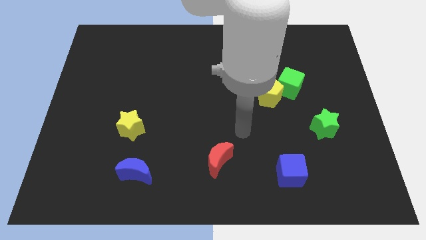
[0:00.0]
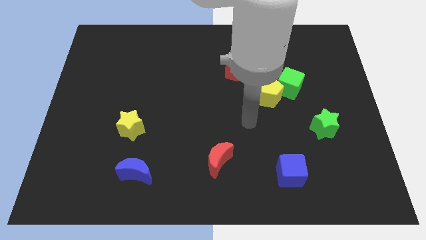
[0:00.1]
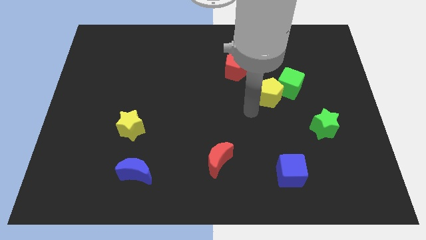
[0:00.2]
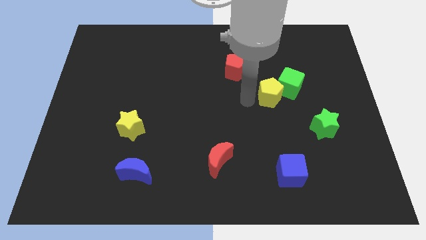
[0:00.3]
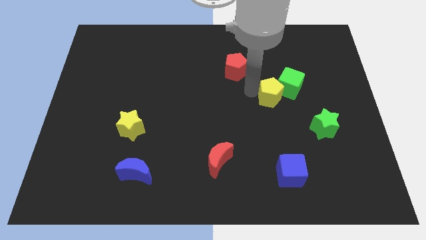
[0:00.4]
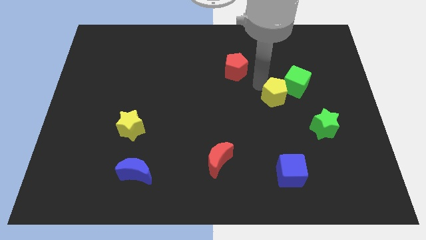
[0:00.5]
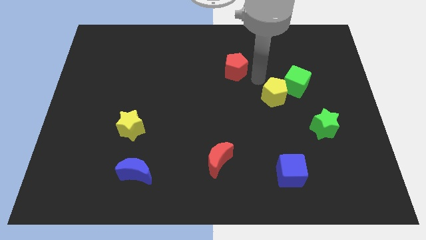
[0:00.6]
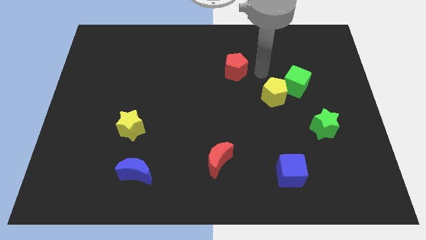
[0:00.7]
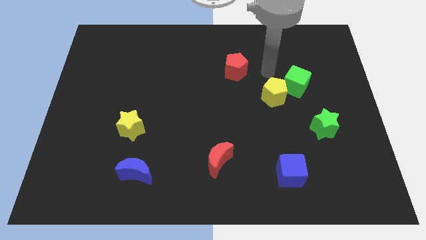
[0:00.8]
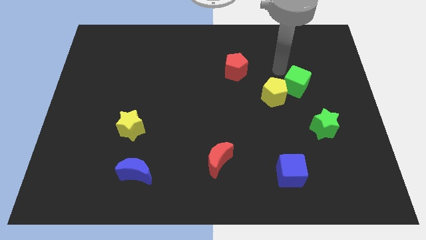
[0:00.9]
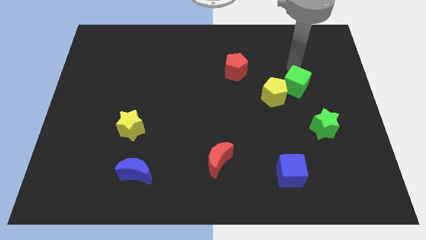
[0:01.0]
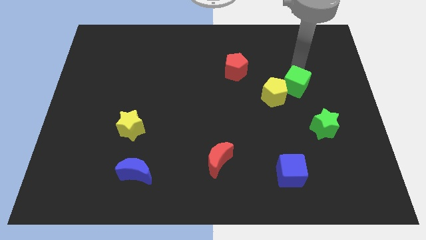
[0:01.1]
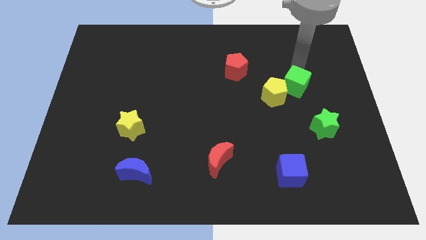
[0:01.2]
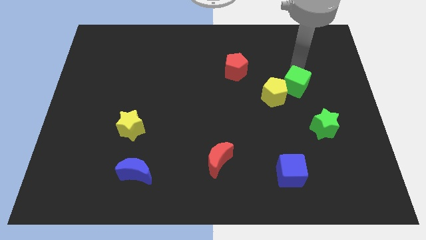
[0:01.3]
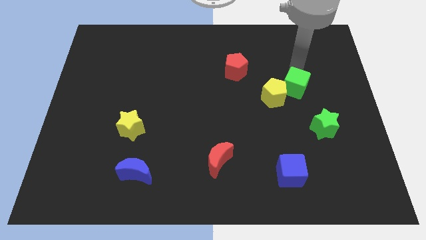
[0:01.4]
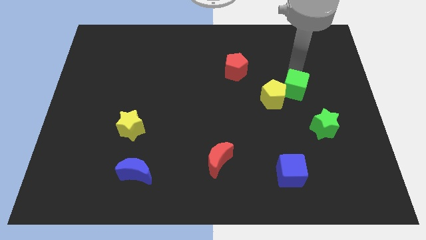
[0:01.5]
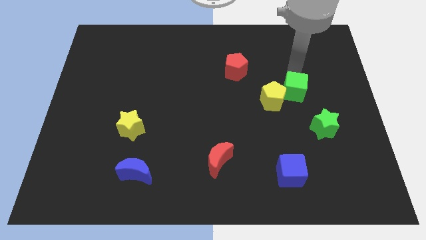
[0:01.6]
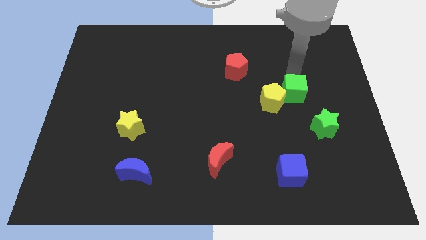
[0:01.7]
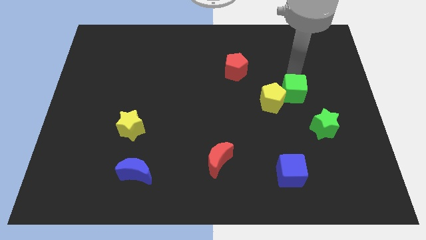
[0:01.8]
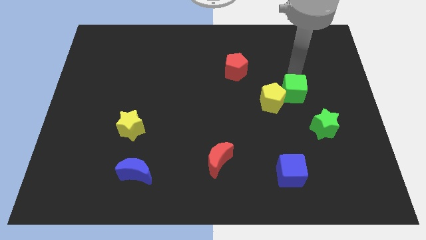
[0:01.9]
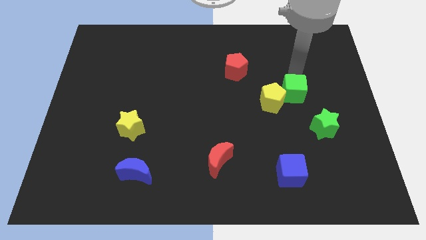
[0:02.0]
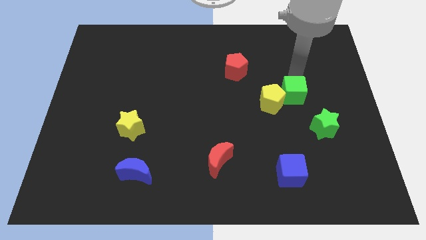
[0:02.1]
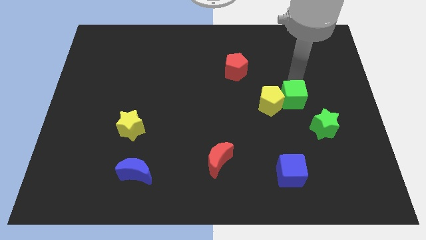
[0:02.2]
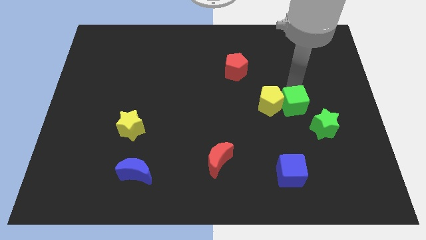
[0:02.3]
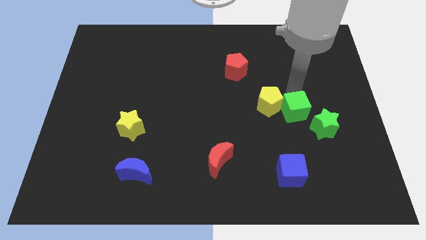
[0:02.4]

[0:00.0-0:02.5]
slide the green cube down a little

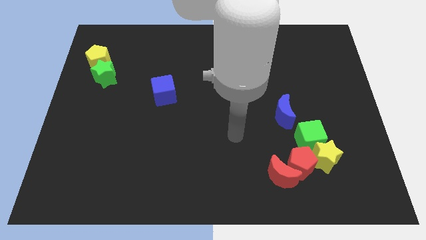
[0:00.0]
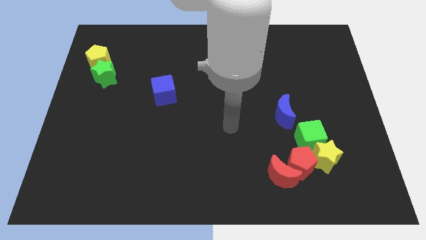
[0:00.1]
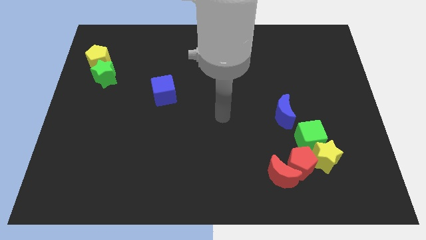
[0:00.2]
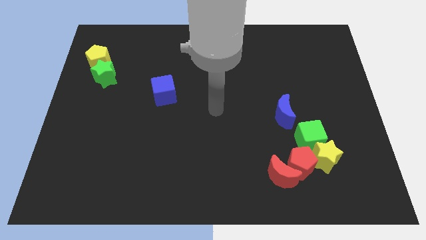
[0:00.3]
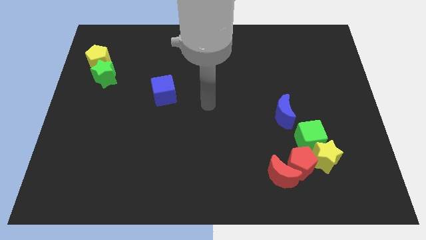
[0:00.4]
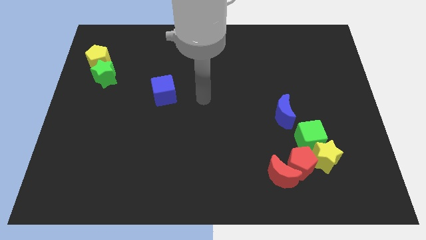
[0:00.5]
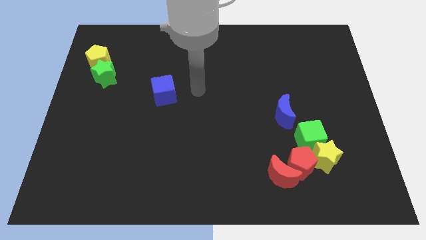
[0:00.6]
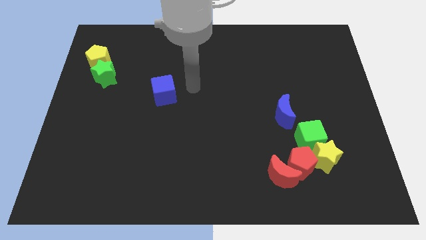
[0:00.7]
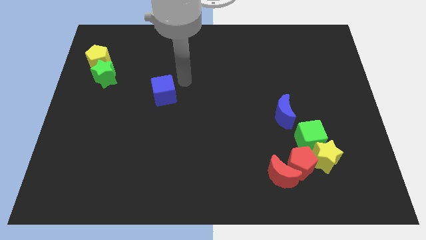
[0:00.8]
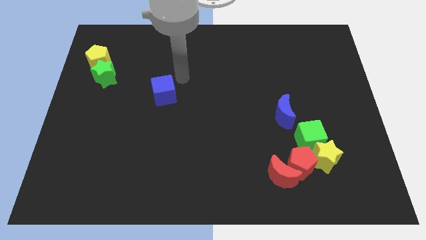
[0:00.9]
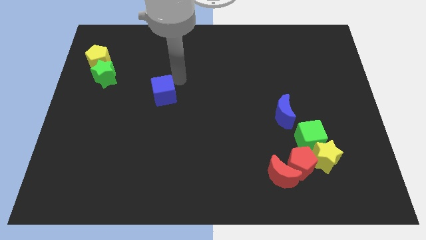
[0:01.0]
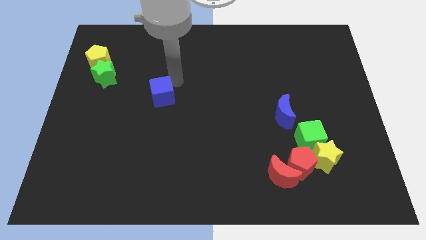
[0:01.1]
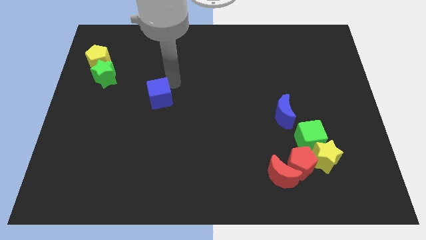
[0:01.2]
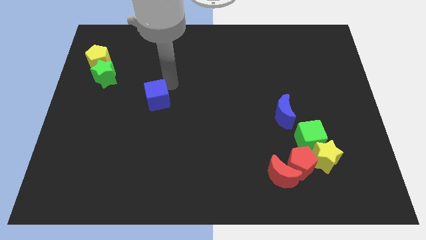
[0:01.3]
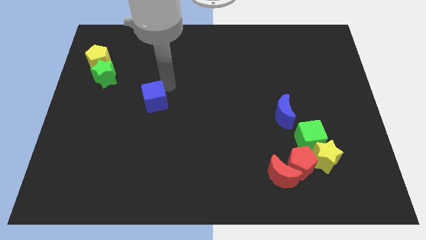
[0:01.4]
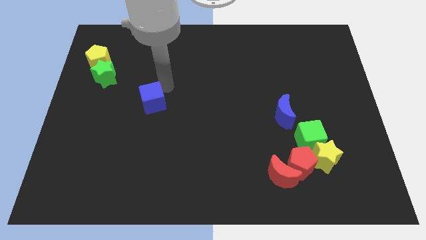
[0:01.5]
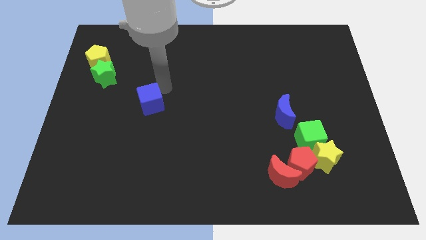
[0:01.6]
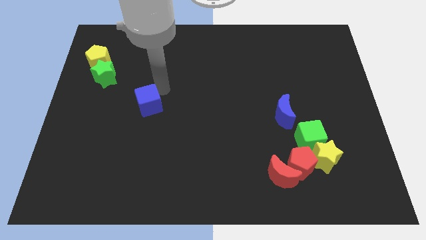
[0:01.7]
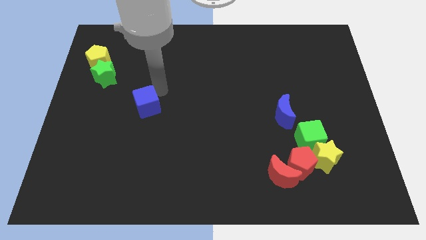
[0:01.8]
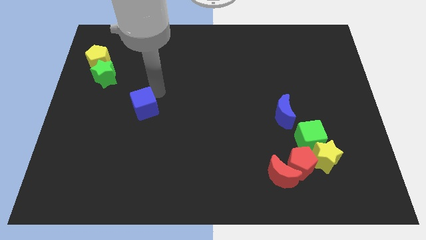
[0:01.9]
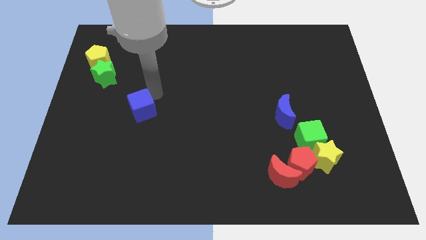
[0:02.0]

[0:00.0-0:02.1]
push the blue cube downwards and then left somewhat

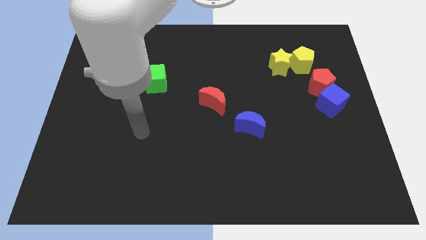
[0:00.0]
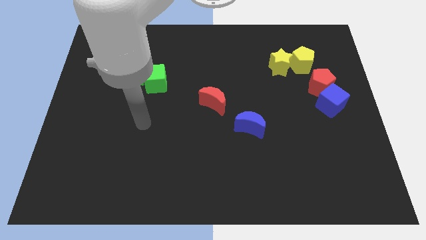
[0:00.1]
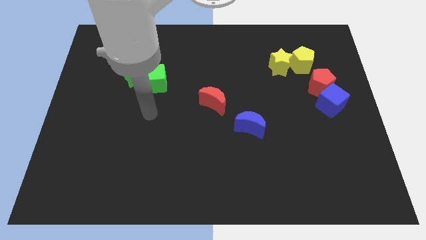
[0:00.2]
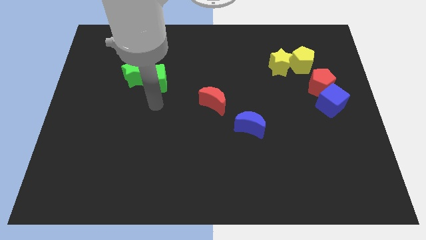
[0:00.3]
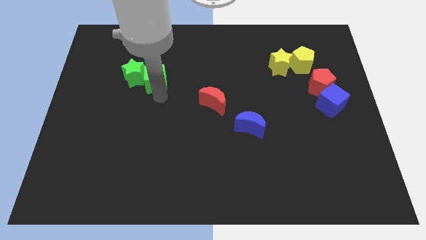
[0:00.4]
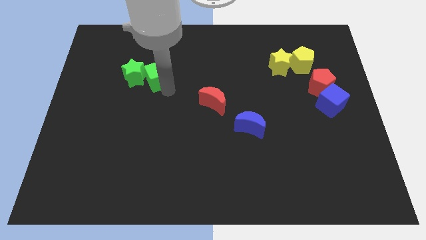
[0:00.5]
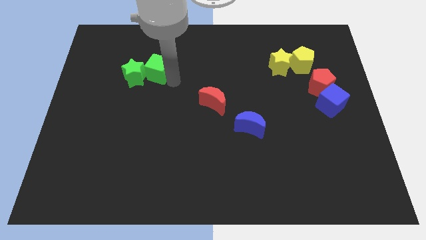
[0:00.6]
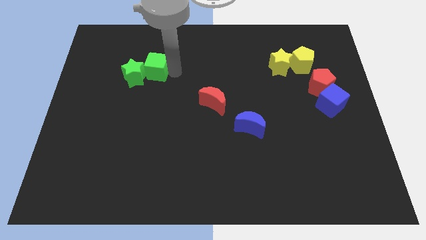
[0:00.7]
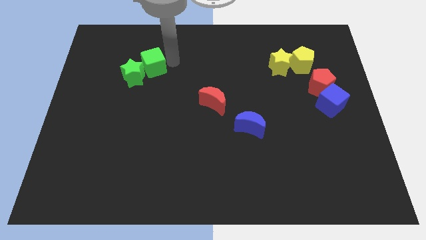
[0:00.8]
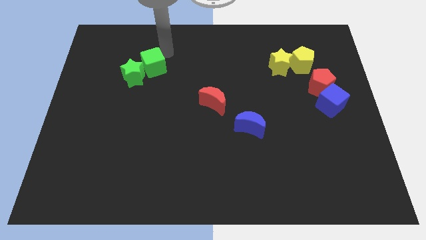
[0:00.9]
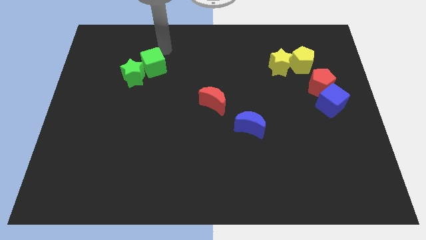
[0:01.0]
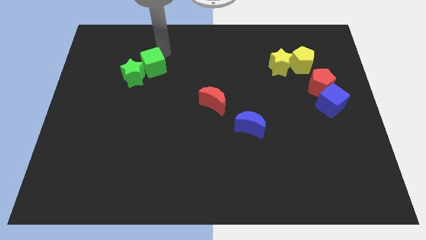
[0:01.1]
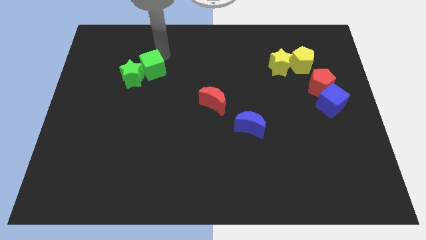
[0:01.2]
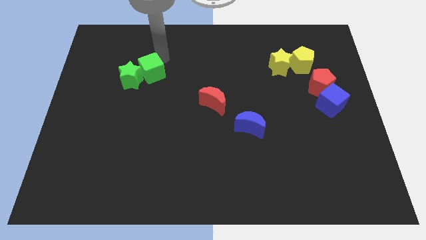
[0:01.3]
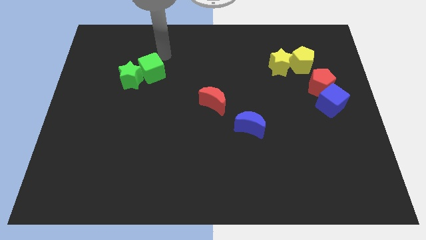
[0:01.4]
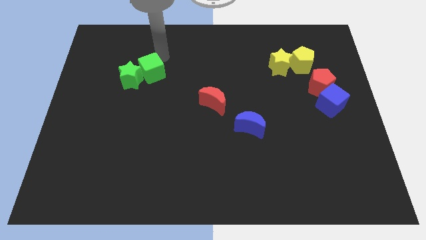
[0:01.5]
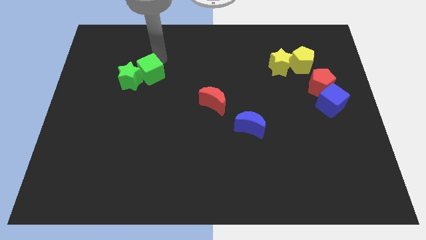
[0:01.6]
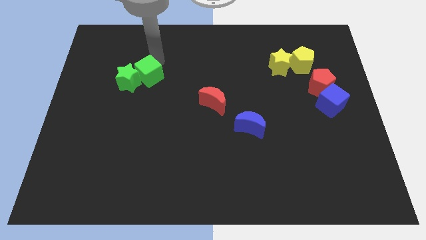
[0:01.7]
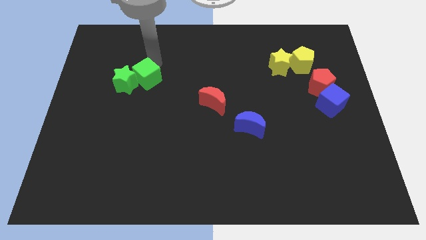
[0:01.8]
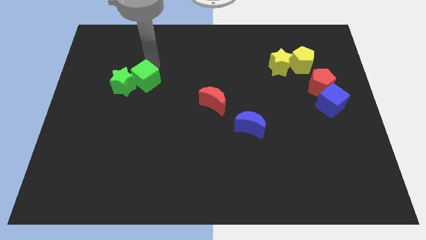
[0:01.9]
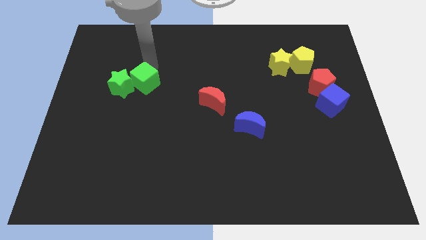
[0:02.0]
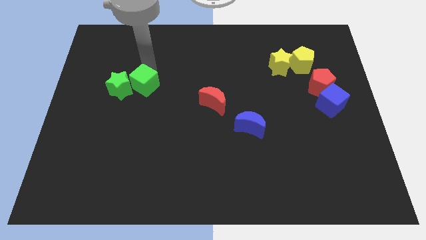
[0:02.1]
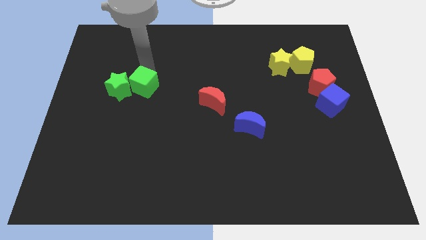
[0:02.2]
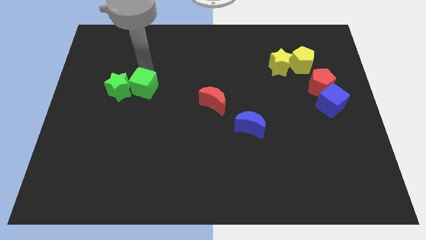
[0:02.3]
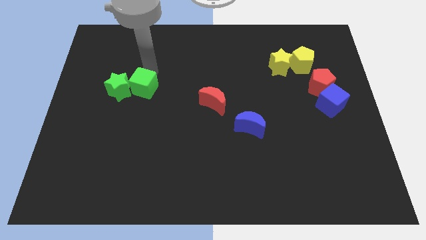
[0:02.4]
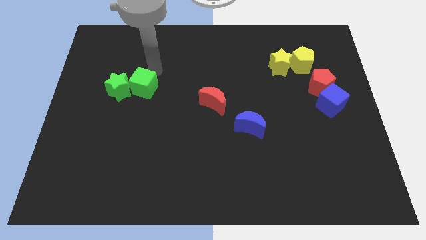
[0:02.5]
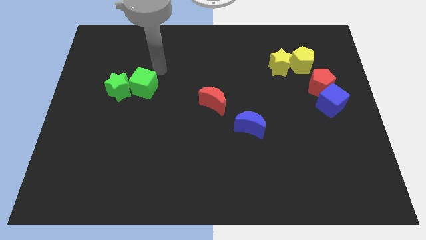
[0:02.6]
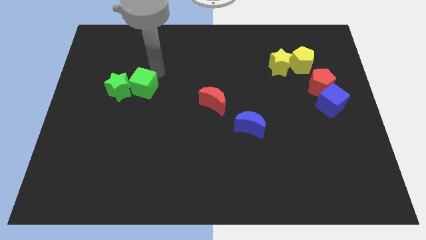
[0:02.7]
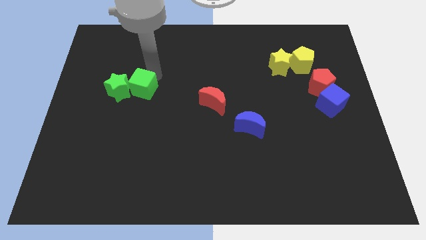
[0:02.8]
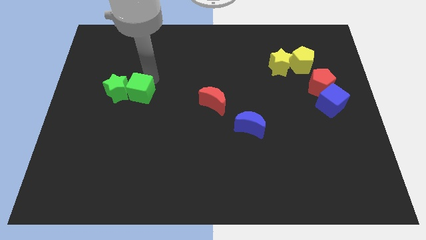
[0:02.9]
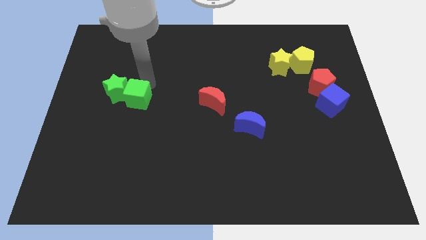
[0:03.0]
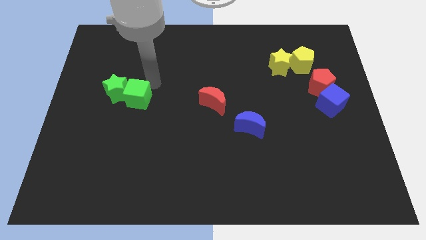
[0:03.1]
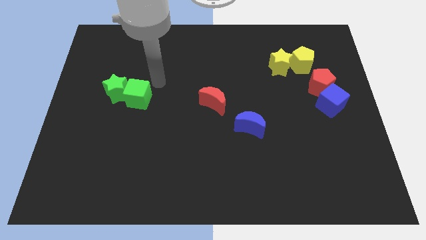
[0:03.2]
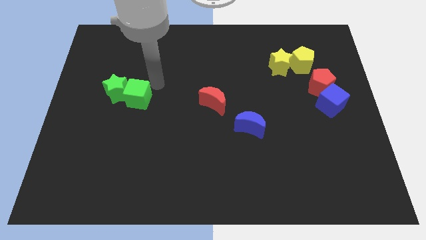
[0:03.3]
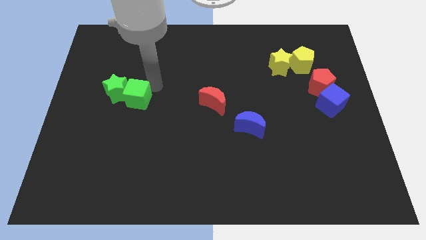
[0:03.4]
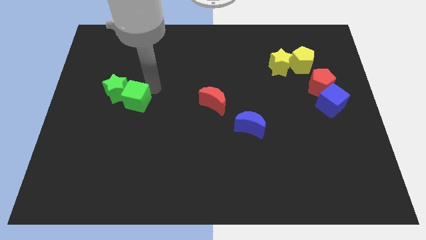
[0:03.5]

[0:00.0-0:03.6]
push the green cube somewhat downwards and left diagonally

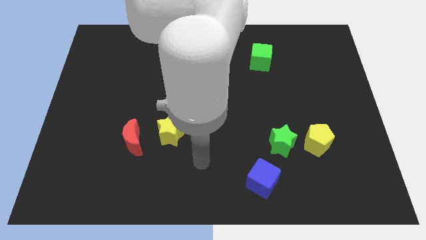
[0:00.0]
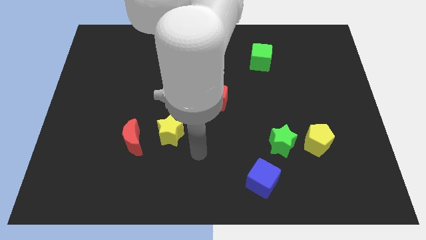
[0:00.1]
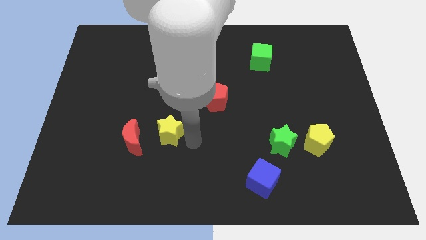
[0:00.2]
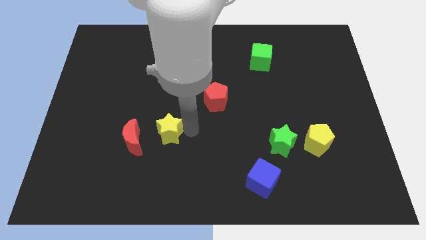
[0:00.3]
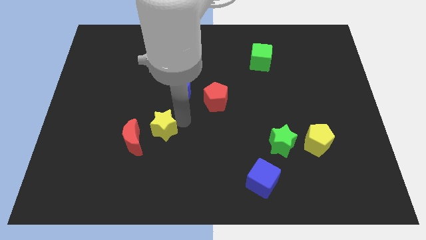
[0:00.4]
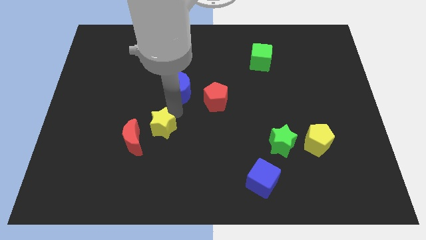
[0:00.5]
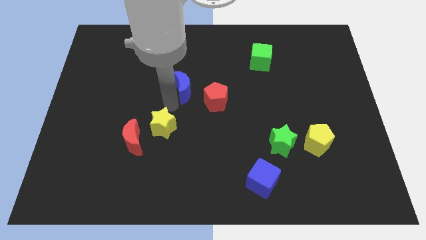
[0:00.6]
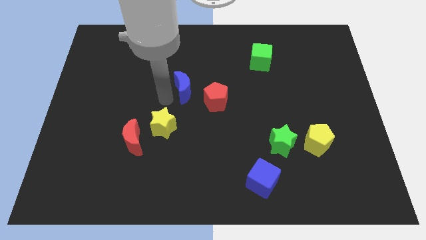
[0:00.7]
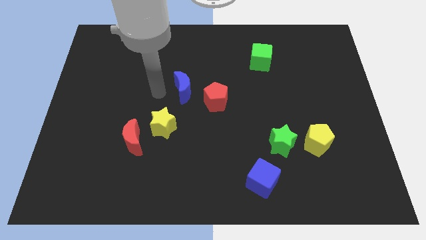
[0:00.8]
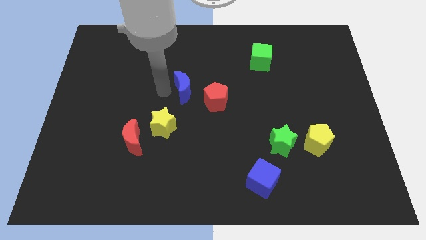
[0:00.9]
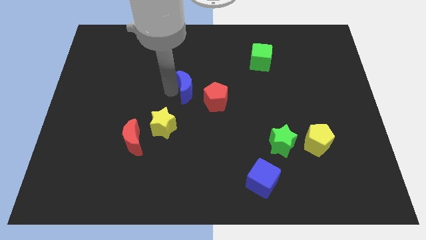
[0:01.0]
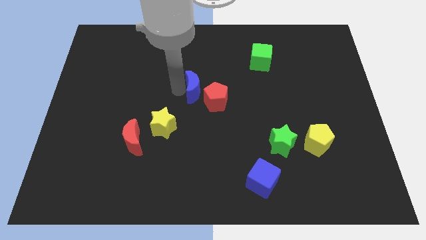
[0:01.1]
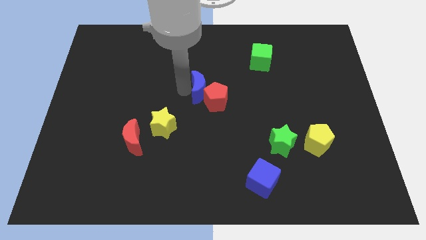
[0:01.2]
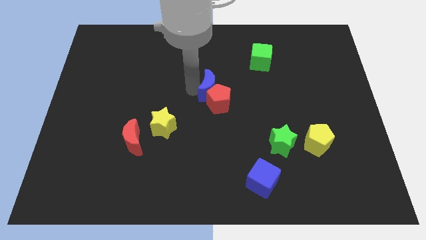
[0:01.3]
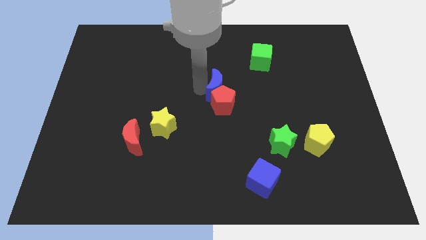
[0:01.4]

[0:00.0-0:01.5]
slightly move the blue moon right
